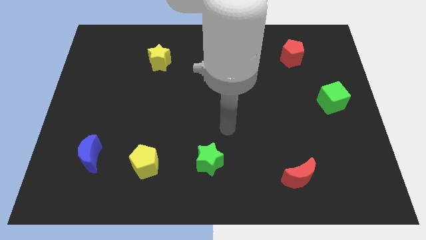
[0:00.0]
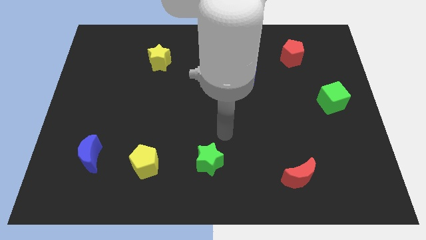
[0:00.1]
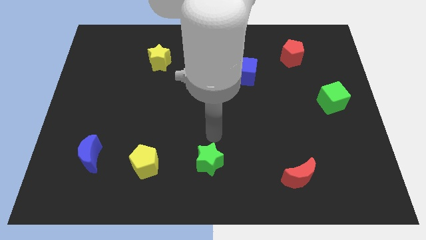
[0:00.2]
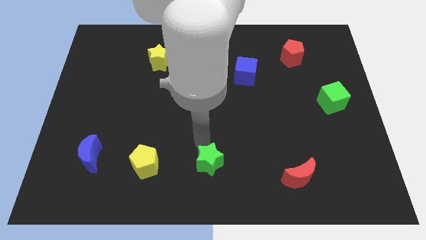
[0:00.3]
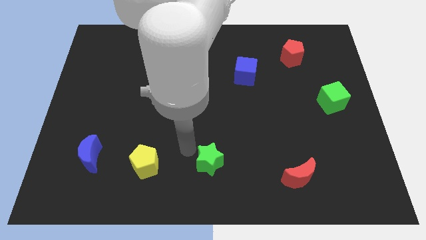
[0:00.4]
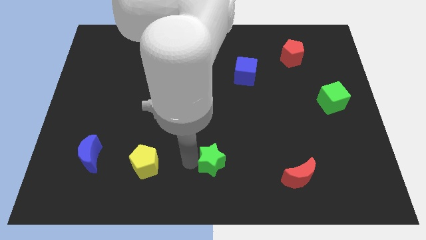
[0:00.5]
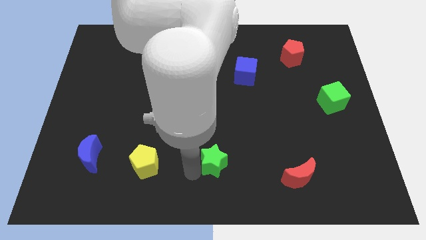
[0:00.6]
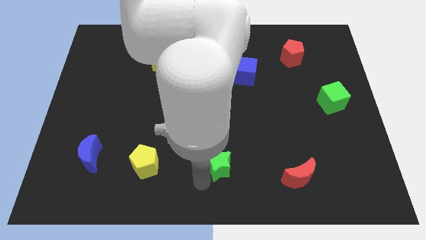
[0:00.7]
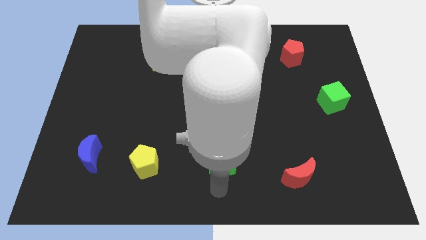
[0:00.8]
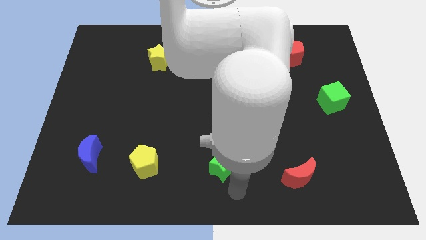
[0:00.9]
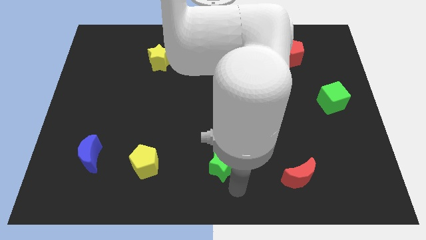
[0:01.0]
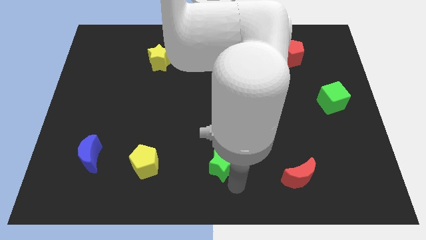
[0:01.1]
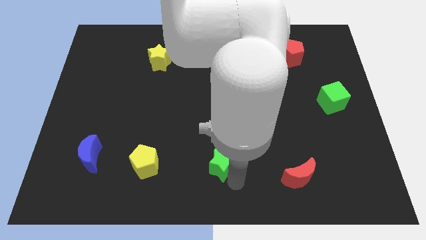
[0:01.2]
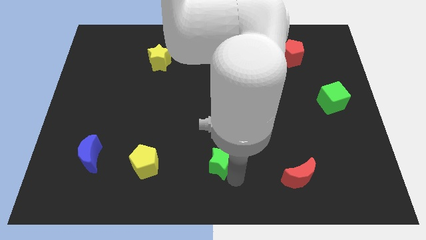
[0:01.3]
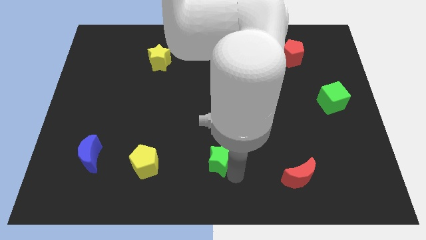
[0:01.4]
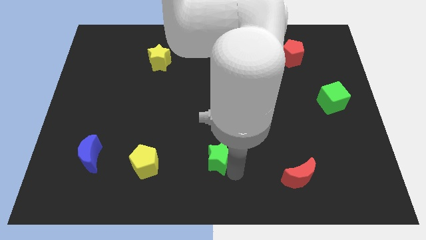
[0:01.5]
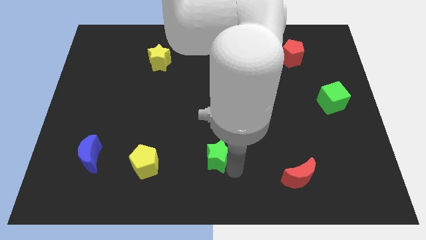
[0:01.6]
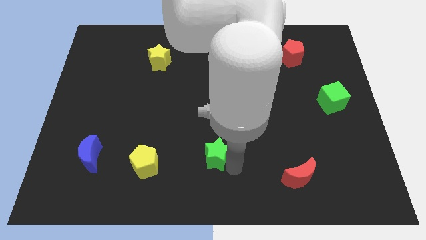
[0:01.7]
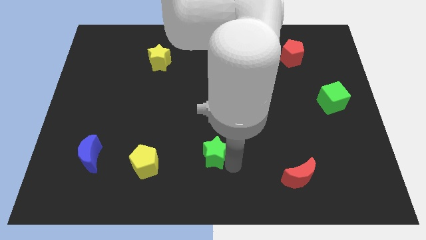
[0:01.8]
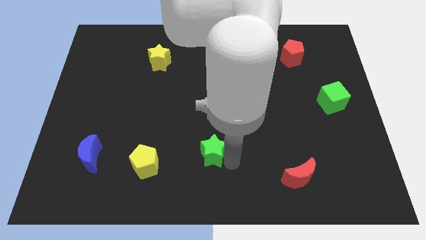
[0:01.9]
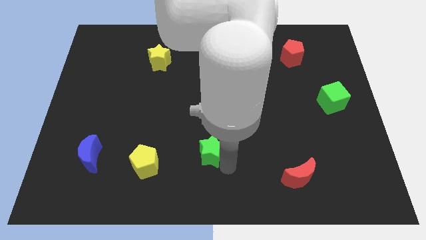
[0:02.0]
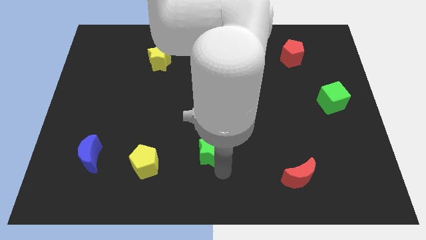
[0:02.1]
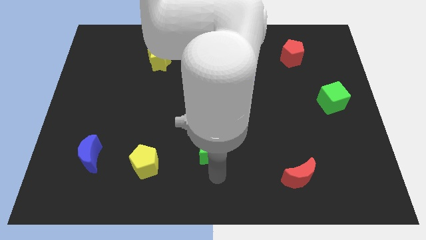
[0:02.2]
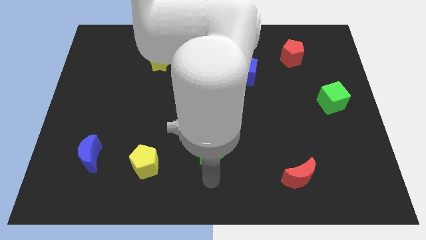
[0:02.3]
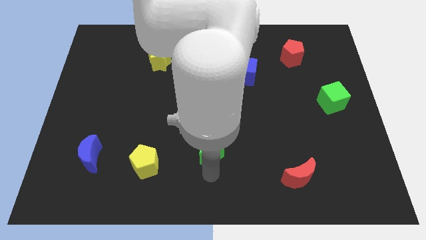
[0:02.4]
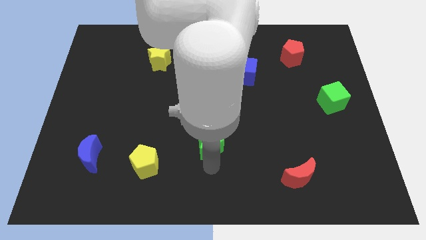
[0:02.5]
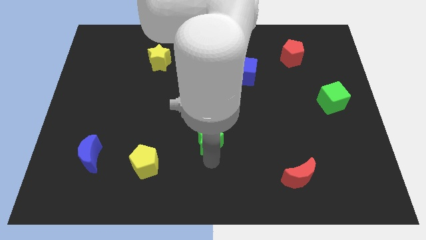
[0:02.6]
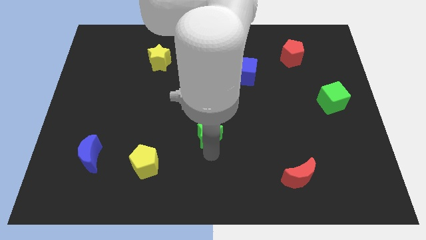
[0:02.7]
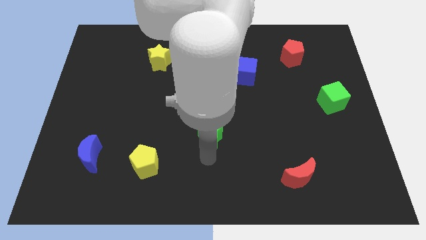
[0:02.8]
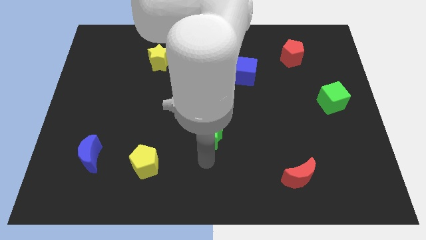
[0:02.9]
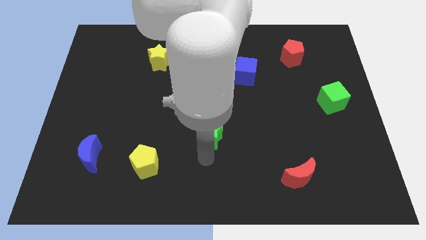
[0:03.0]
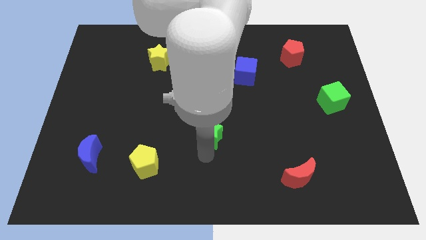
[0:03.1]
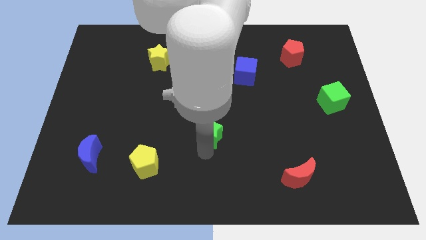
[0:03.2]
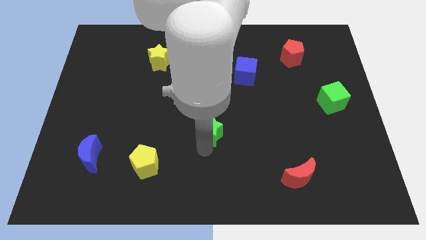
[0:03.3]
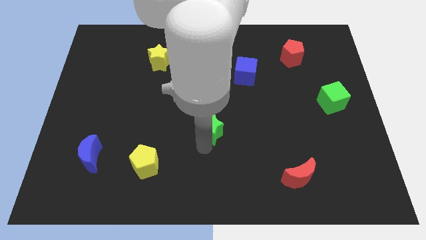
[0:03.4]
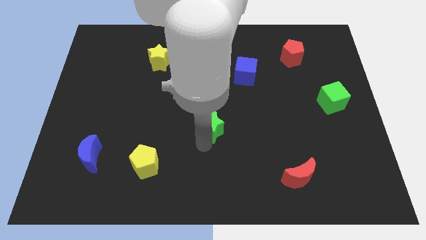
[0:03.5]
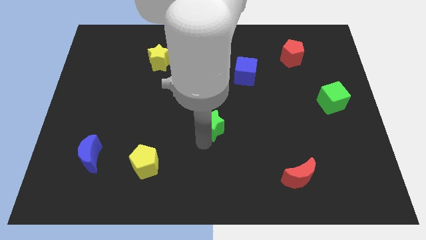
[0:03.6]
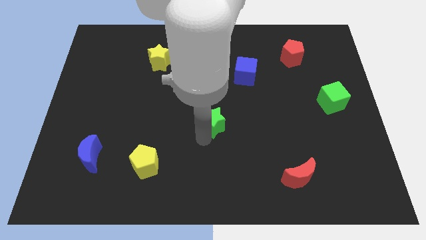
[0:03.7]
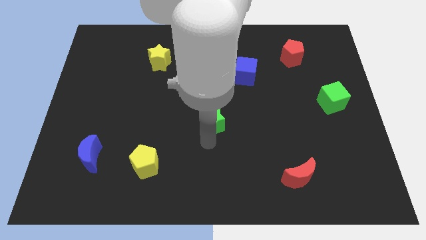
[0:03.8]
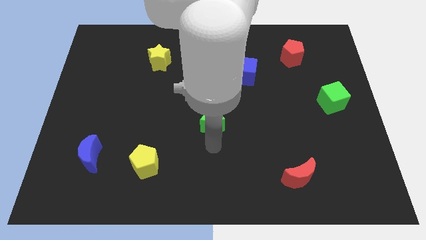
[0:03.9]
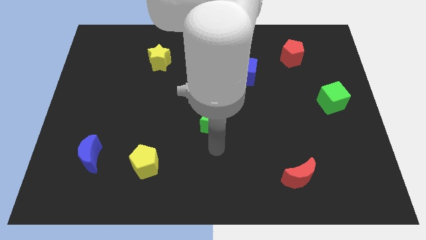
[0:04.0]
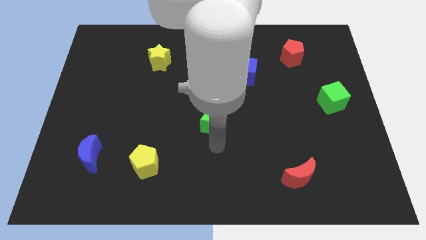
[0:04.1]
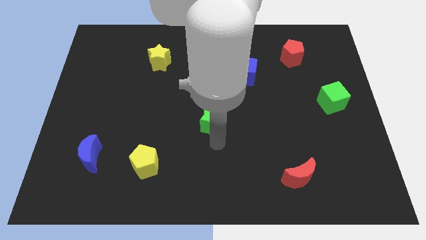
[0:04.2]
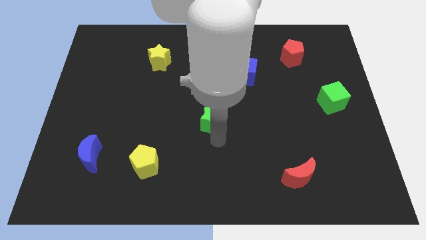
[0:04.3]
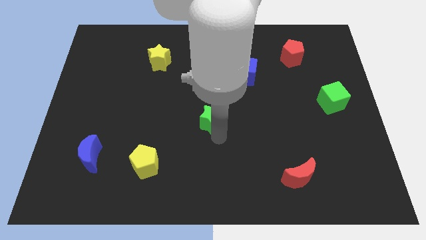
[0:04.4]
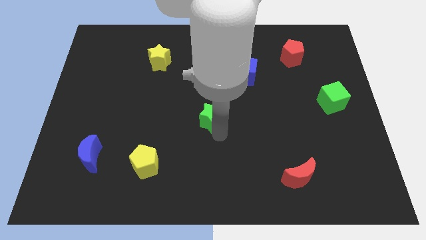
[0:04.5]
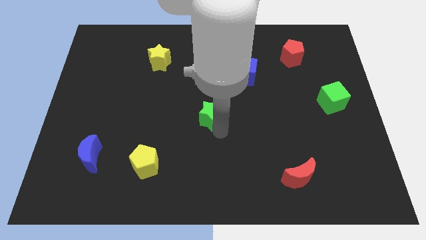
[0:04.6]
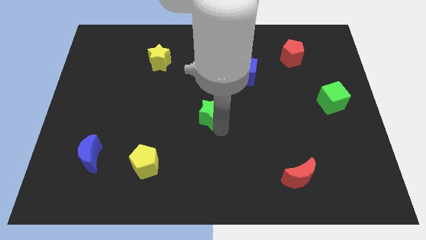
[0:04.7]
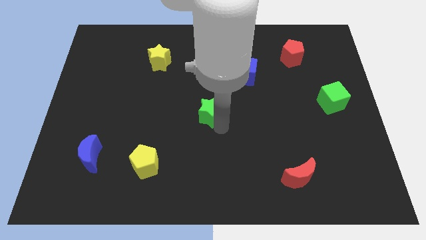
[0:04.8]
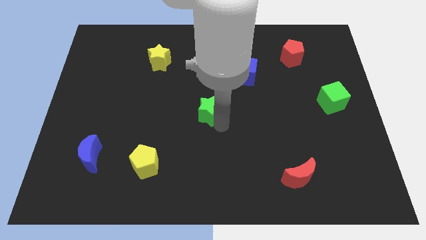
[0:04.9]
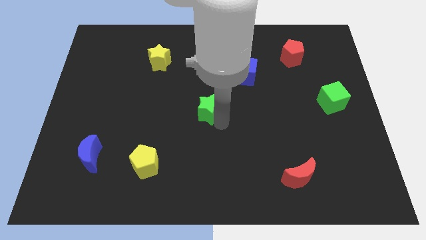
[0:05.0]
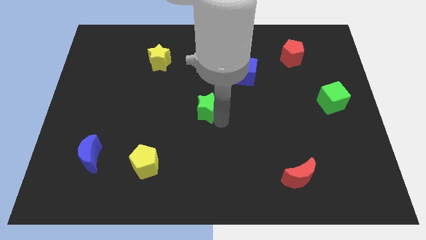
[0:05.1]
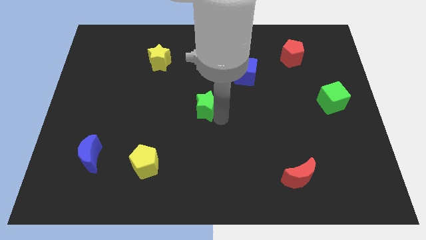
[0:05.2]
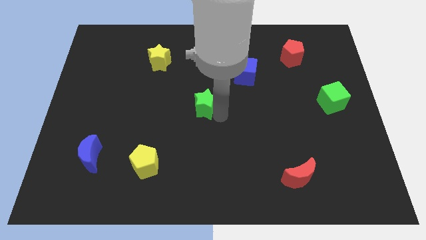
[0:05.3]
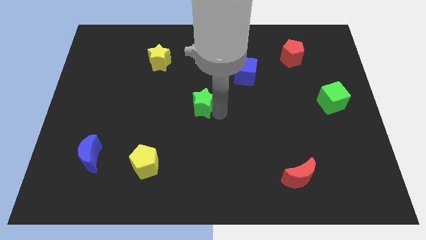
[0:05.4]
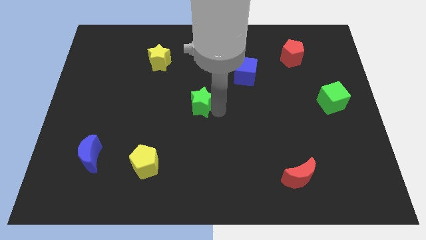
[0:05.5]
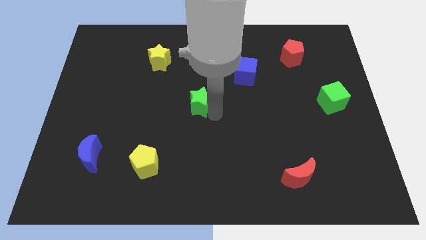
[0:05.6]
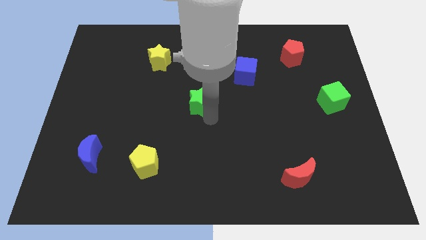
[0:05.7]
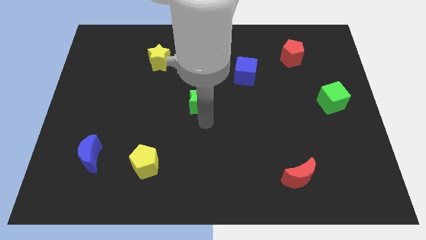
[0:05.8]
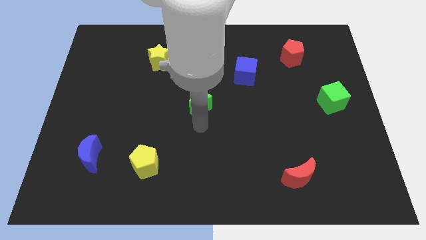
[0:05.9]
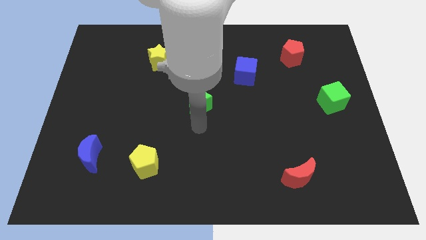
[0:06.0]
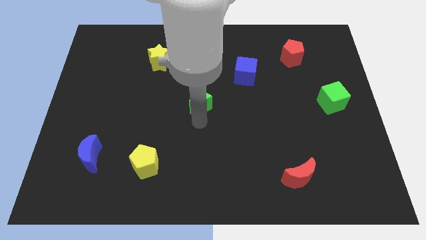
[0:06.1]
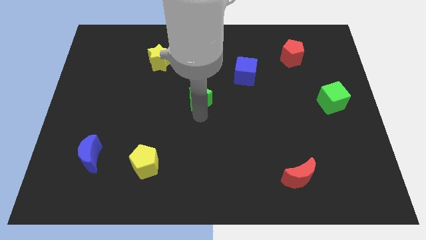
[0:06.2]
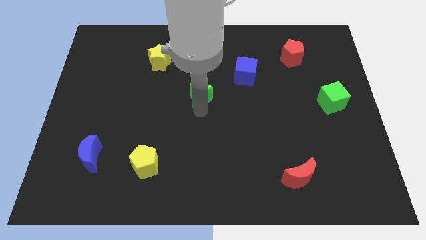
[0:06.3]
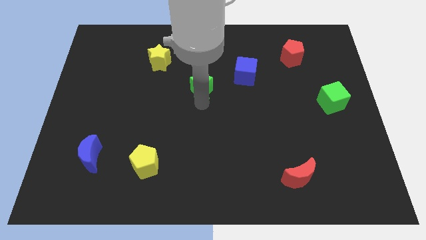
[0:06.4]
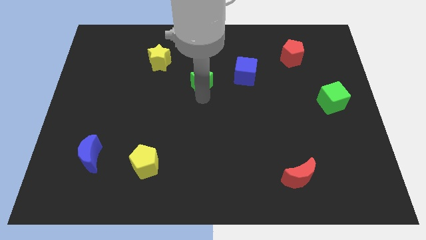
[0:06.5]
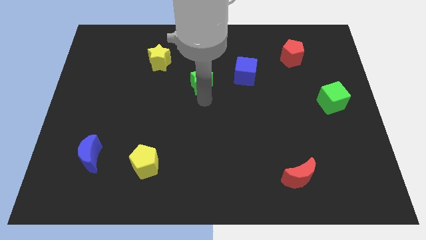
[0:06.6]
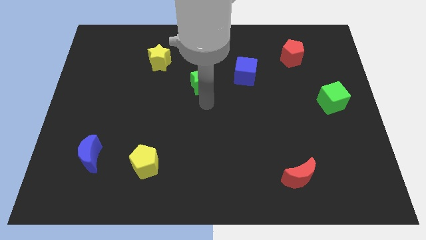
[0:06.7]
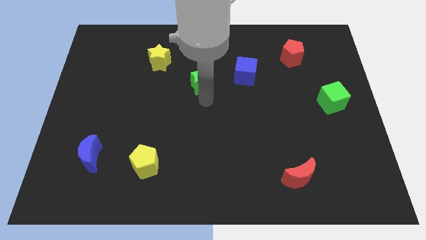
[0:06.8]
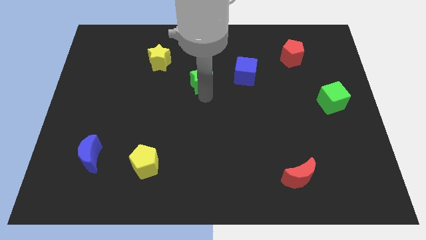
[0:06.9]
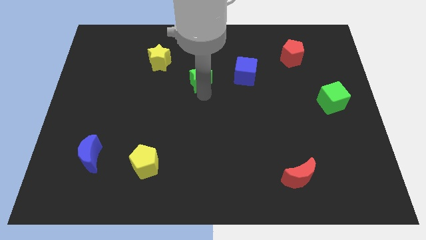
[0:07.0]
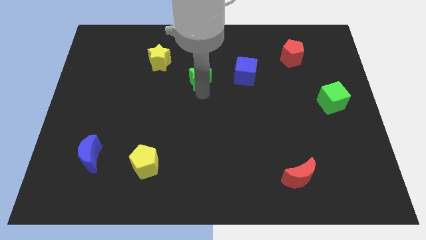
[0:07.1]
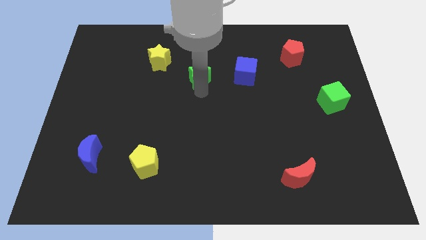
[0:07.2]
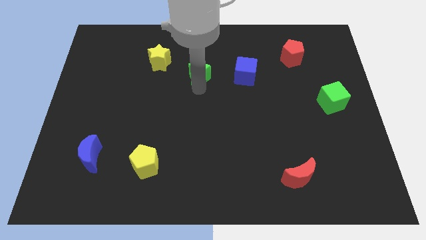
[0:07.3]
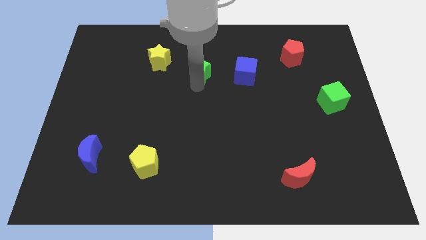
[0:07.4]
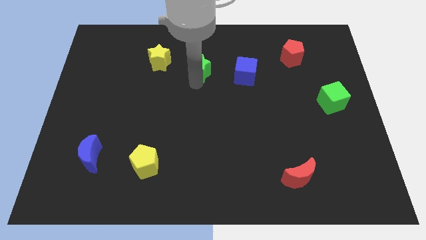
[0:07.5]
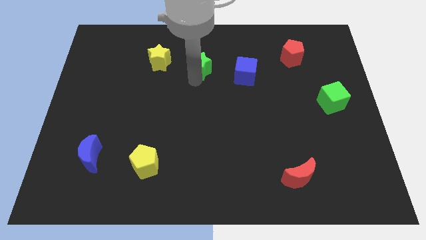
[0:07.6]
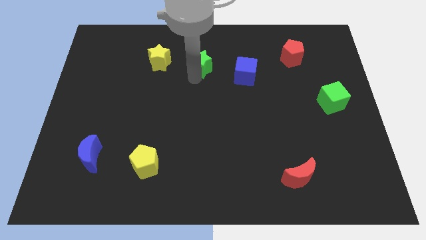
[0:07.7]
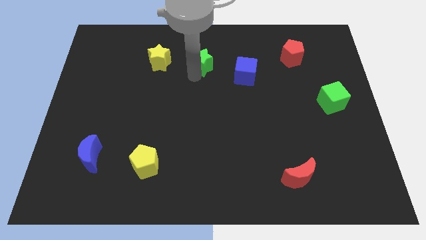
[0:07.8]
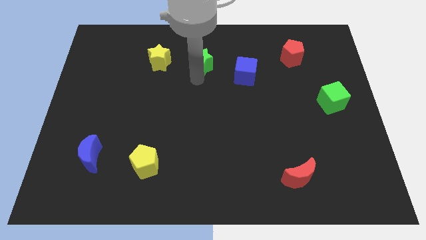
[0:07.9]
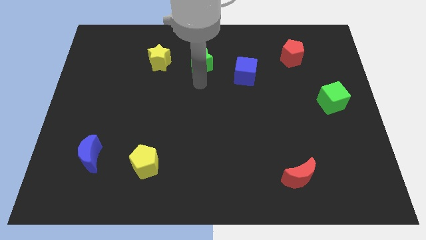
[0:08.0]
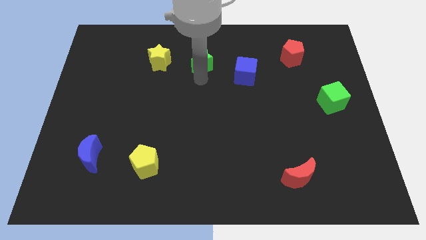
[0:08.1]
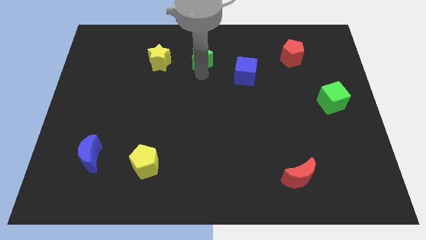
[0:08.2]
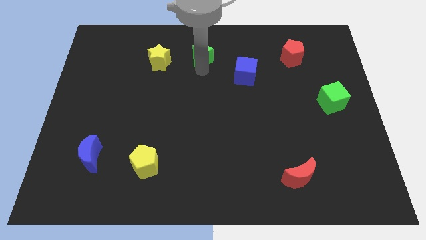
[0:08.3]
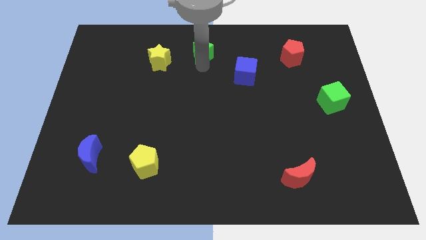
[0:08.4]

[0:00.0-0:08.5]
slide the green star to the top
